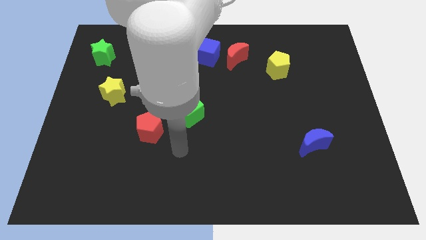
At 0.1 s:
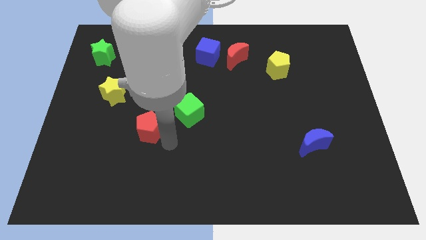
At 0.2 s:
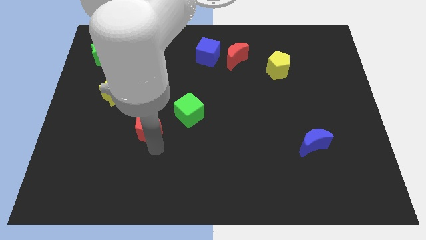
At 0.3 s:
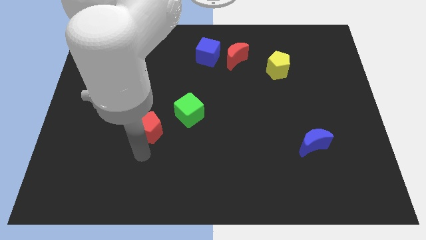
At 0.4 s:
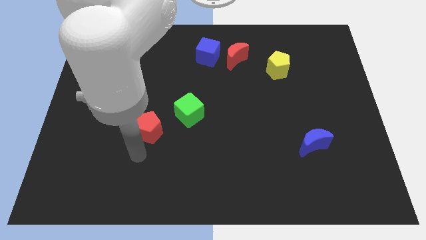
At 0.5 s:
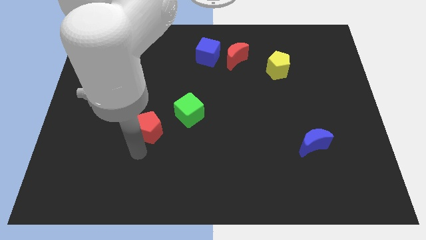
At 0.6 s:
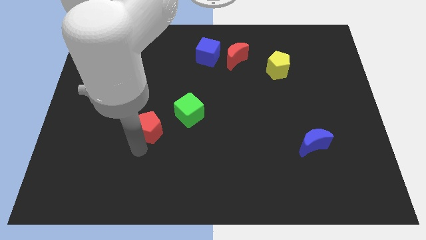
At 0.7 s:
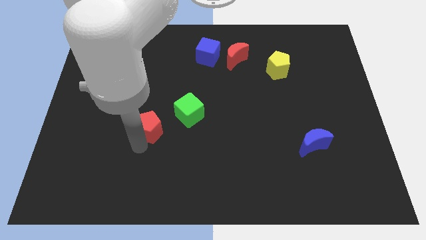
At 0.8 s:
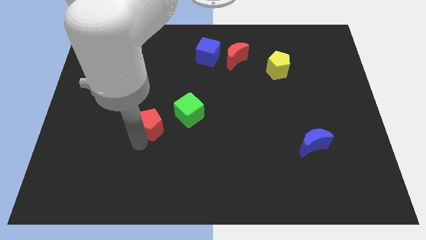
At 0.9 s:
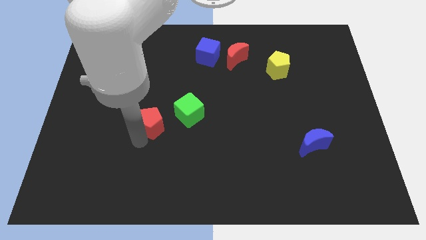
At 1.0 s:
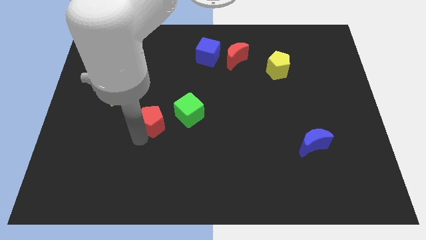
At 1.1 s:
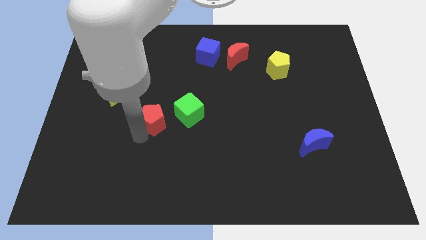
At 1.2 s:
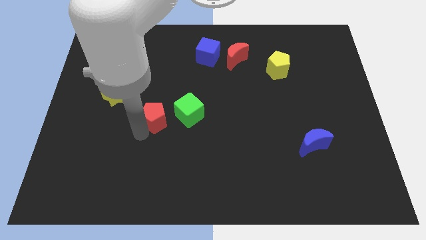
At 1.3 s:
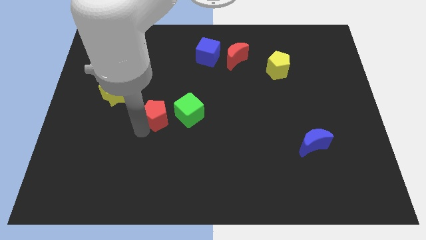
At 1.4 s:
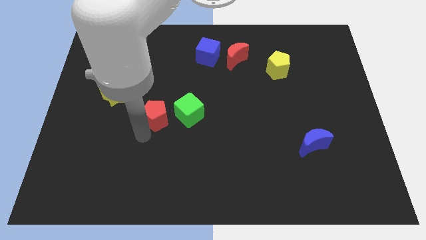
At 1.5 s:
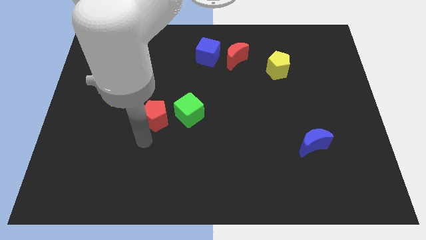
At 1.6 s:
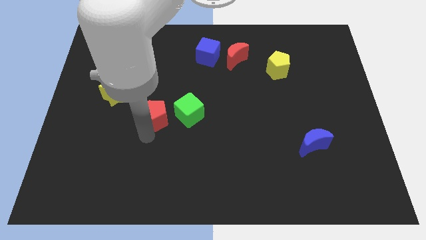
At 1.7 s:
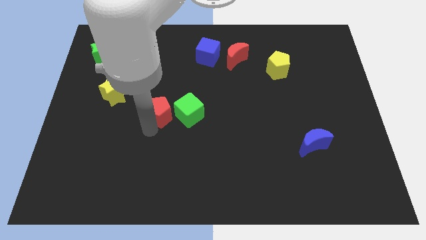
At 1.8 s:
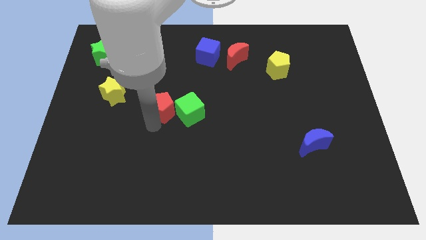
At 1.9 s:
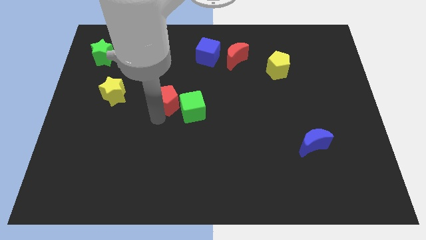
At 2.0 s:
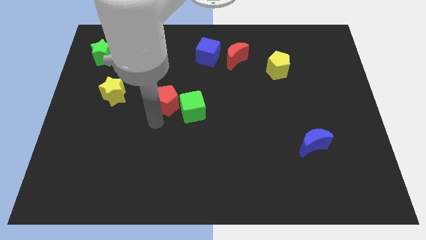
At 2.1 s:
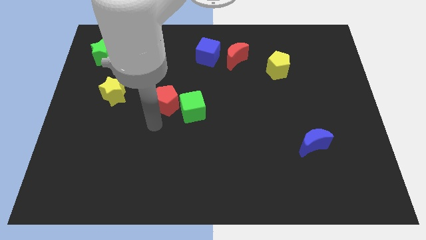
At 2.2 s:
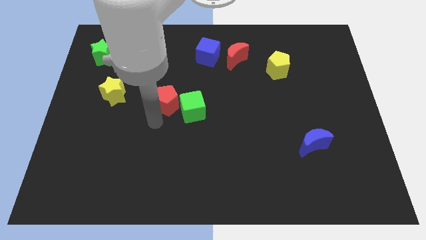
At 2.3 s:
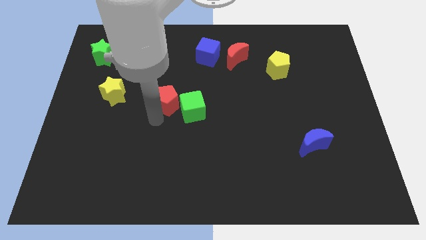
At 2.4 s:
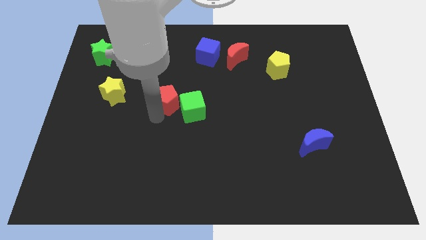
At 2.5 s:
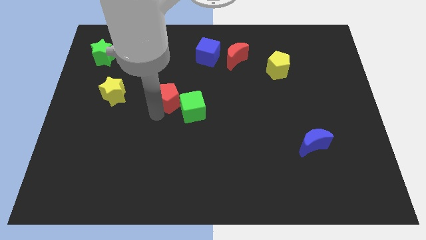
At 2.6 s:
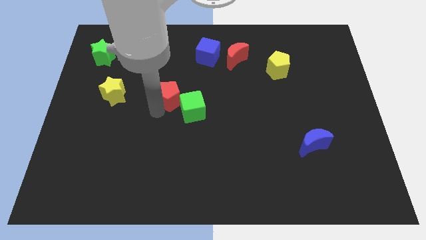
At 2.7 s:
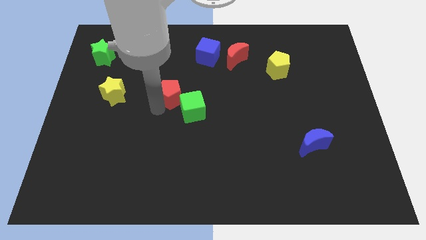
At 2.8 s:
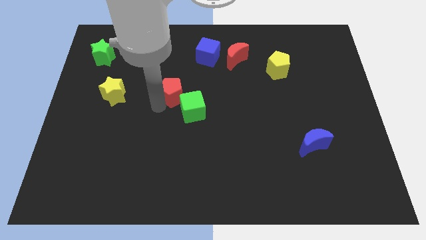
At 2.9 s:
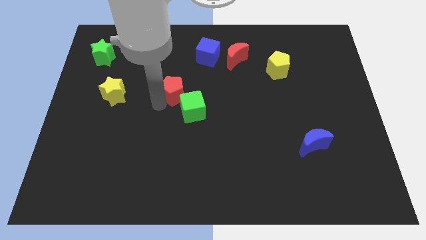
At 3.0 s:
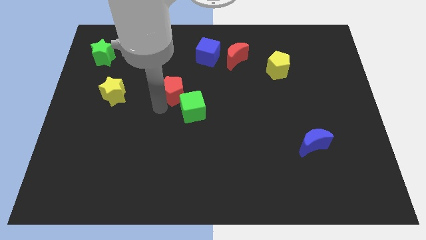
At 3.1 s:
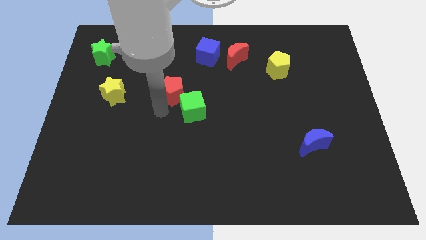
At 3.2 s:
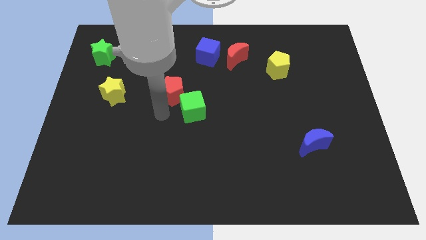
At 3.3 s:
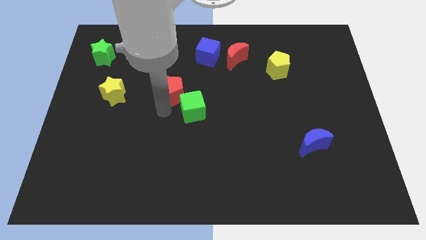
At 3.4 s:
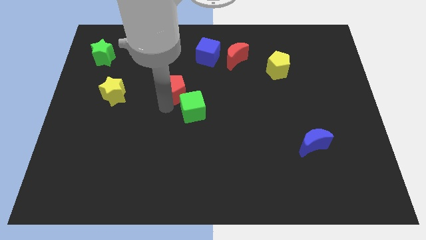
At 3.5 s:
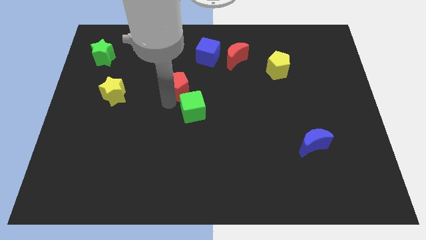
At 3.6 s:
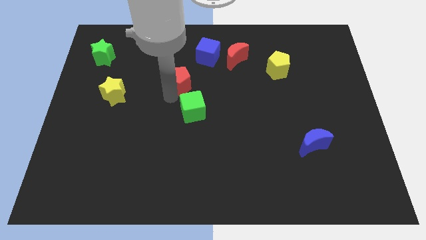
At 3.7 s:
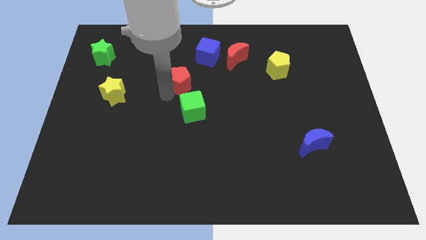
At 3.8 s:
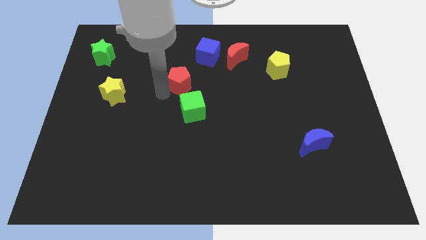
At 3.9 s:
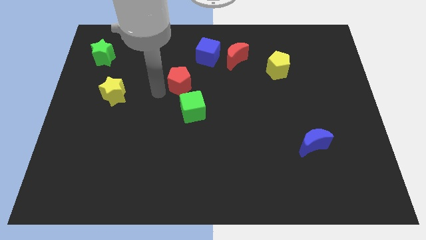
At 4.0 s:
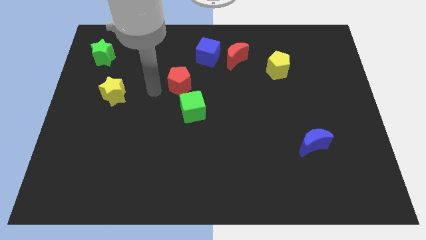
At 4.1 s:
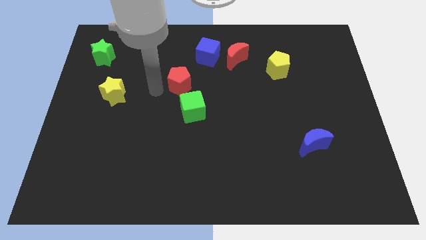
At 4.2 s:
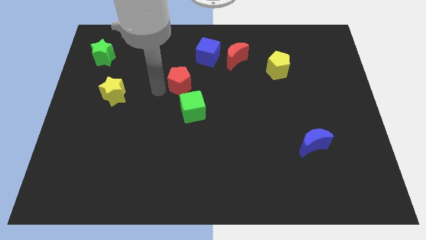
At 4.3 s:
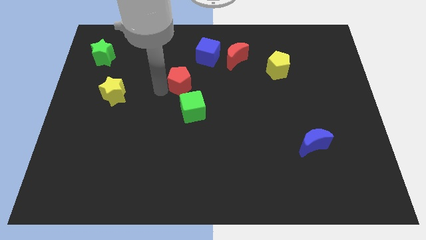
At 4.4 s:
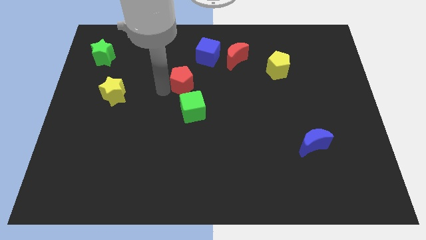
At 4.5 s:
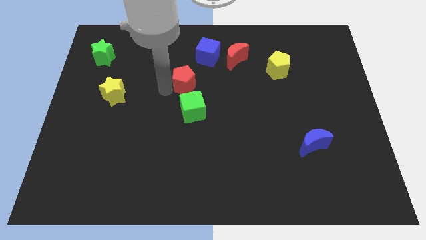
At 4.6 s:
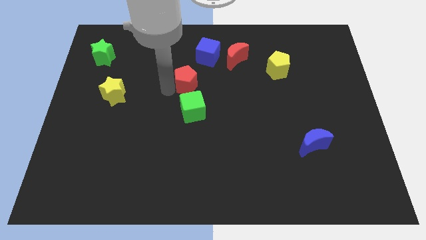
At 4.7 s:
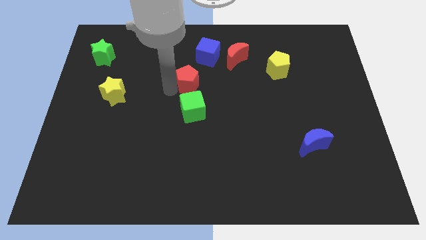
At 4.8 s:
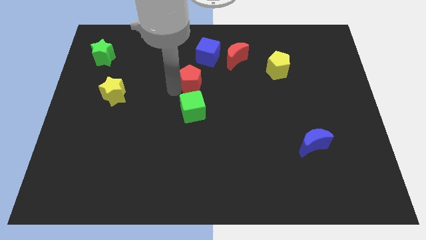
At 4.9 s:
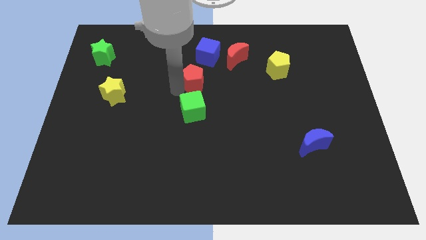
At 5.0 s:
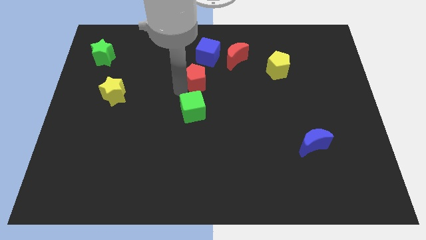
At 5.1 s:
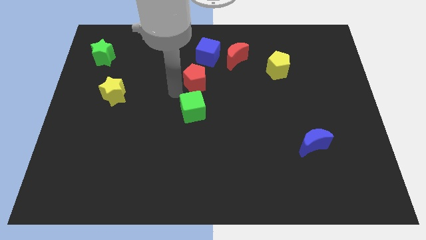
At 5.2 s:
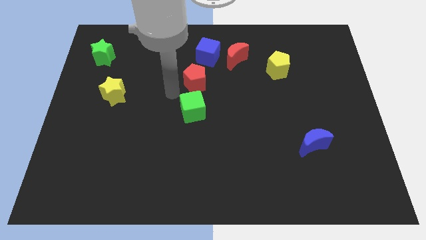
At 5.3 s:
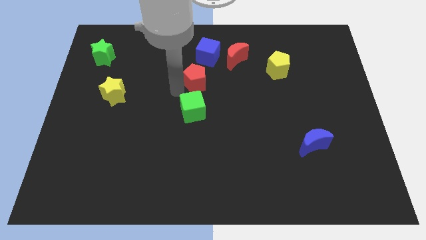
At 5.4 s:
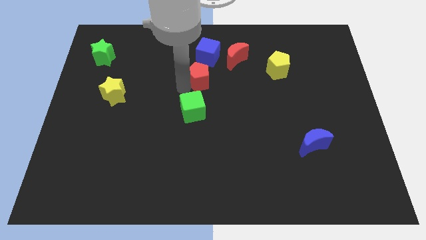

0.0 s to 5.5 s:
move the red pentagon to the bottom left side of the red moon
